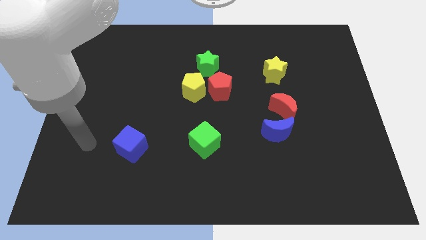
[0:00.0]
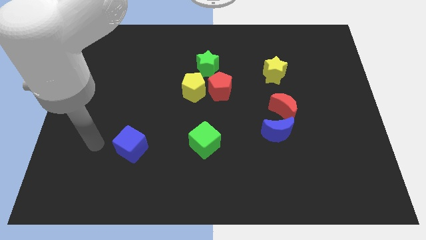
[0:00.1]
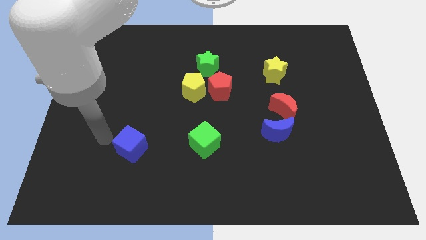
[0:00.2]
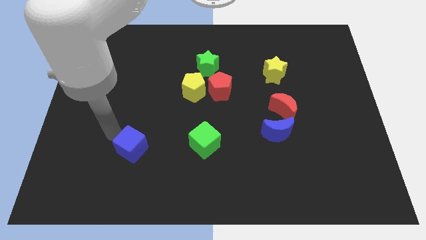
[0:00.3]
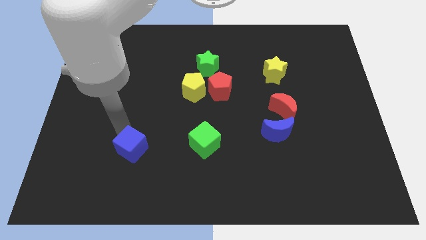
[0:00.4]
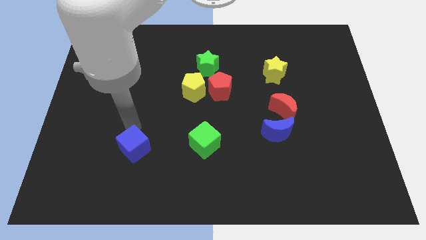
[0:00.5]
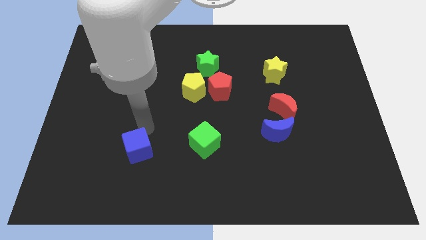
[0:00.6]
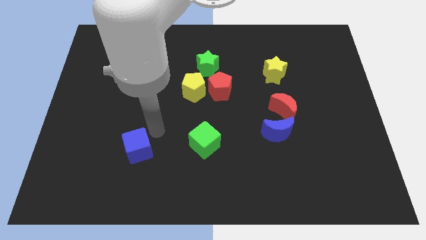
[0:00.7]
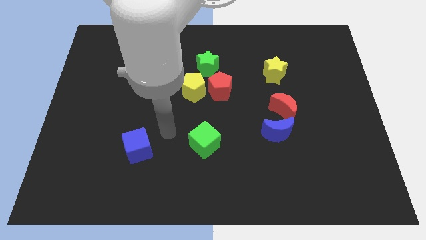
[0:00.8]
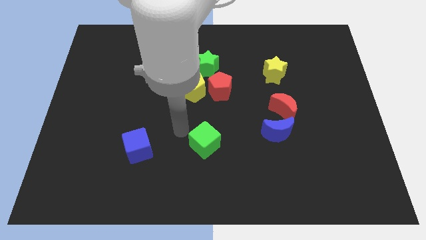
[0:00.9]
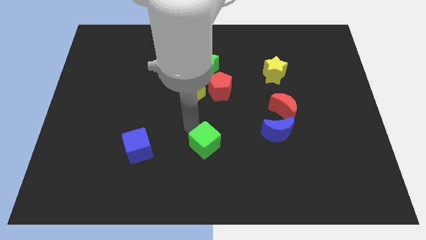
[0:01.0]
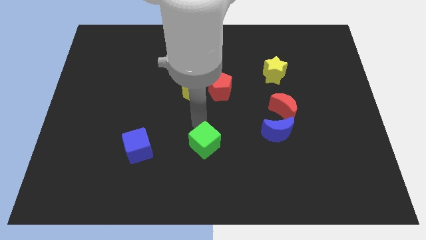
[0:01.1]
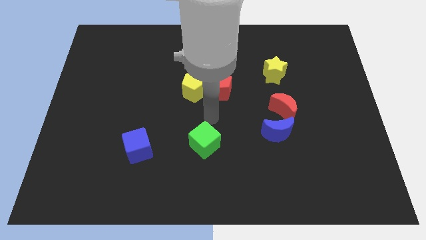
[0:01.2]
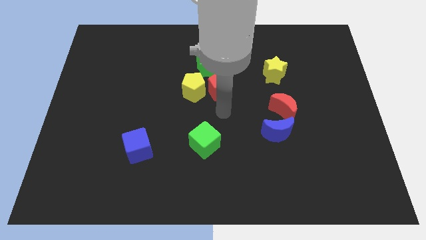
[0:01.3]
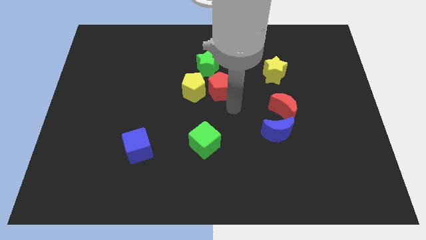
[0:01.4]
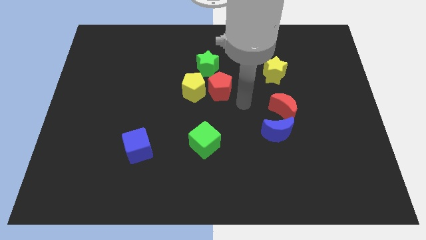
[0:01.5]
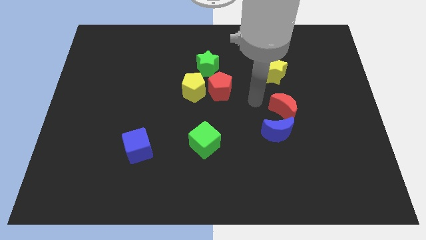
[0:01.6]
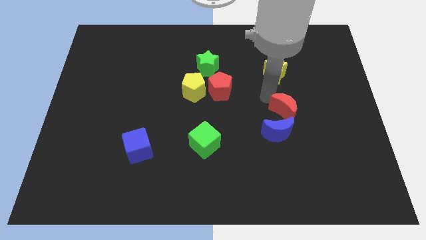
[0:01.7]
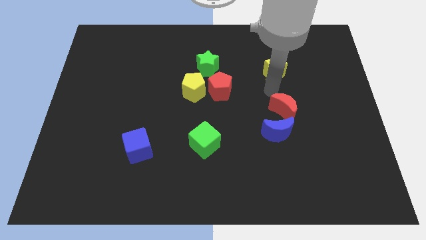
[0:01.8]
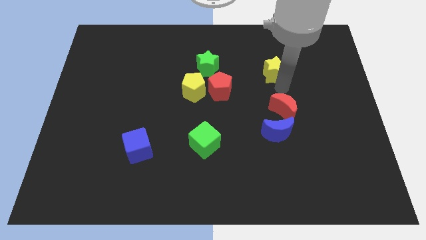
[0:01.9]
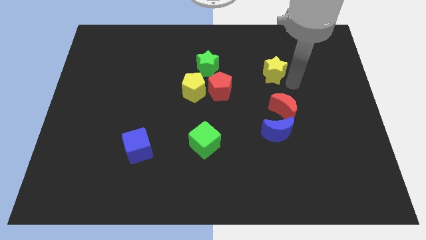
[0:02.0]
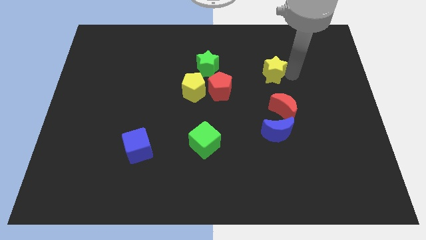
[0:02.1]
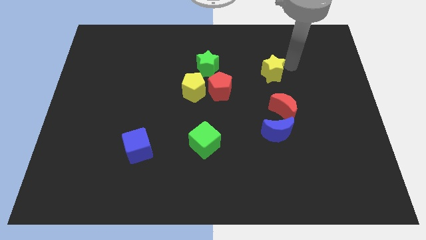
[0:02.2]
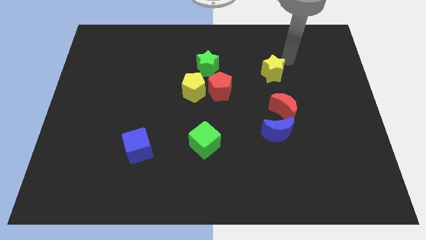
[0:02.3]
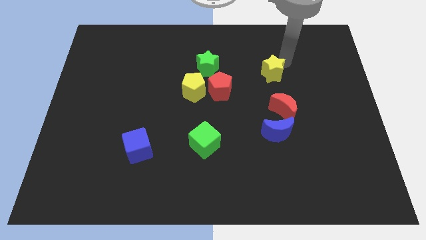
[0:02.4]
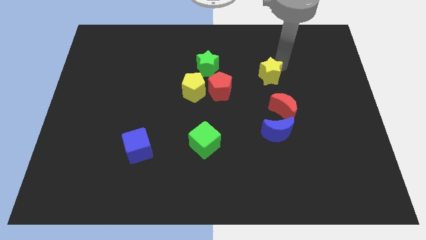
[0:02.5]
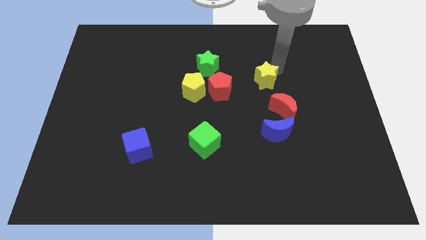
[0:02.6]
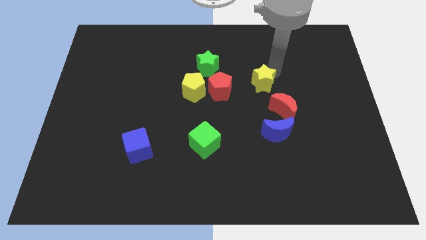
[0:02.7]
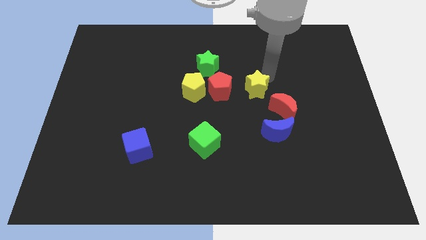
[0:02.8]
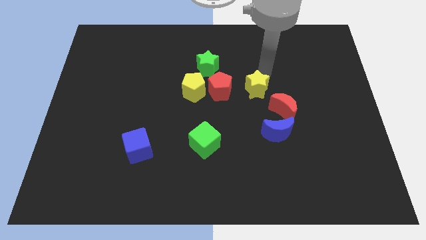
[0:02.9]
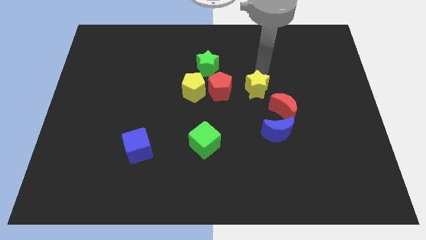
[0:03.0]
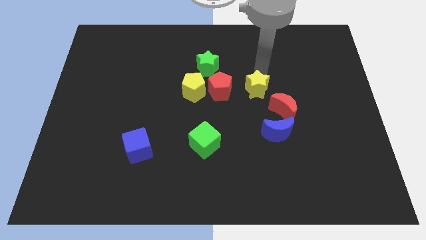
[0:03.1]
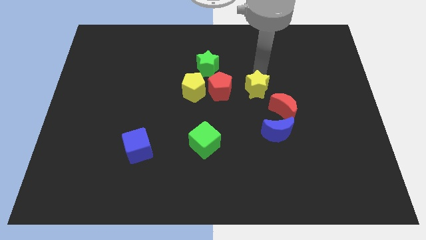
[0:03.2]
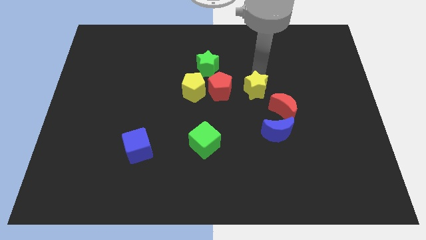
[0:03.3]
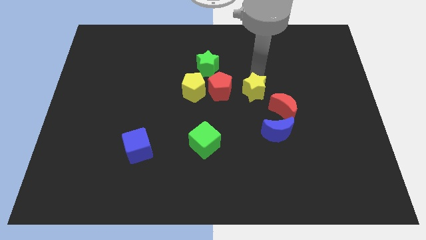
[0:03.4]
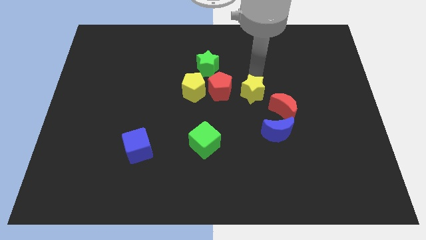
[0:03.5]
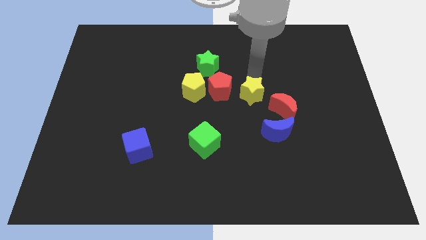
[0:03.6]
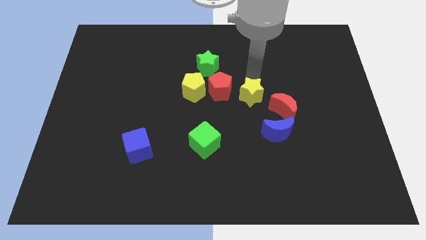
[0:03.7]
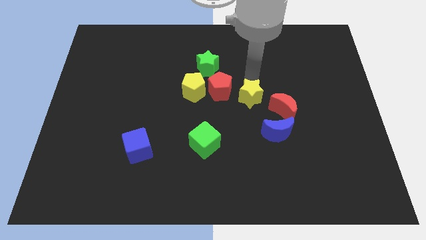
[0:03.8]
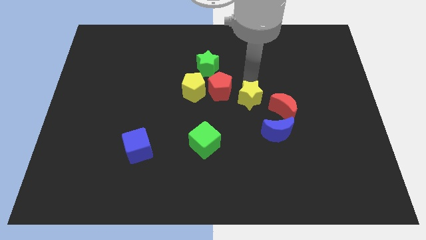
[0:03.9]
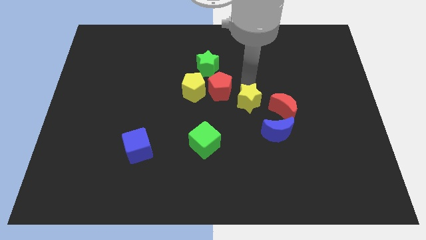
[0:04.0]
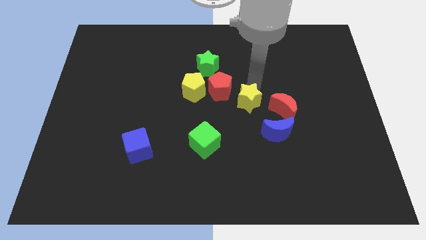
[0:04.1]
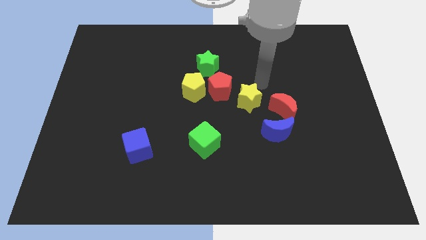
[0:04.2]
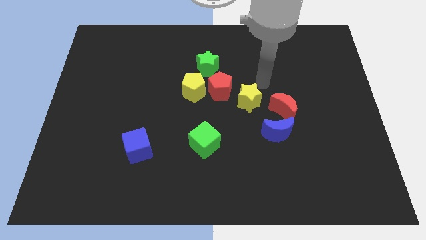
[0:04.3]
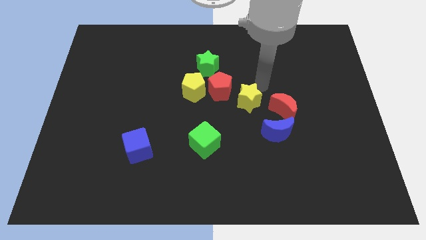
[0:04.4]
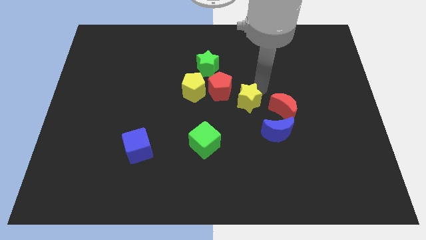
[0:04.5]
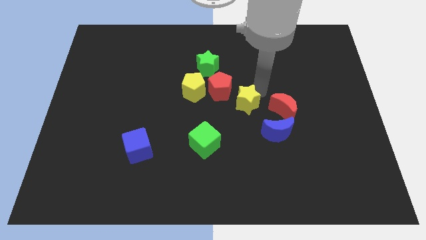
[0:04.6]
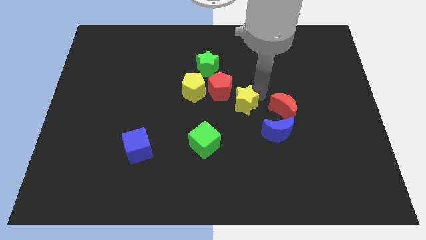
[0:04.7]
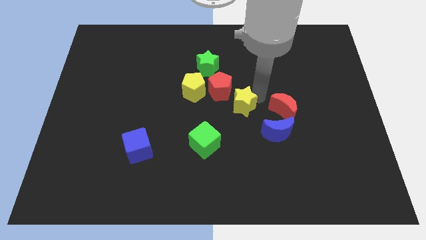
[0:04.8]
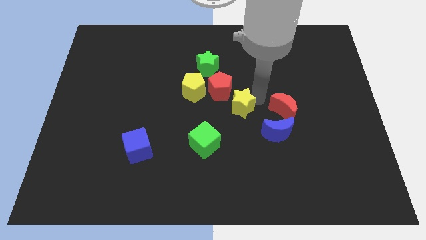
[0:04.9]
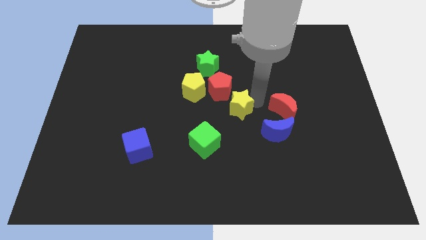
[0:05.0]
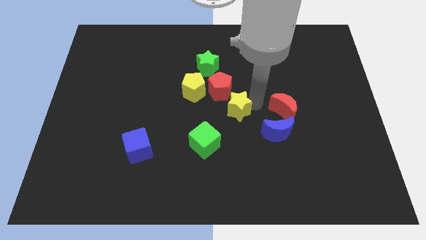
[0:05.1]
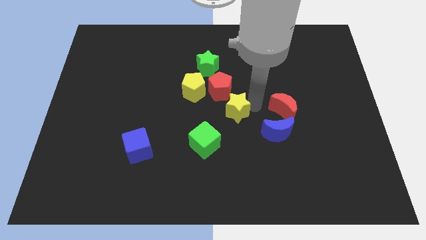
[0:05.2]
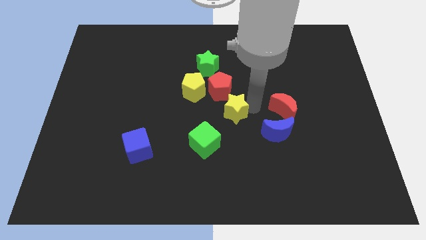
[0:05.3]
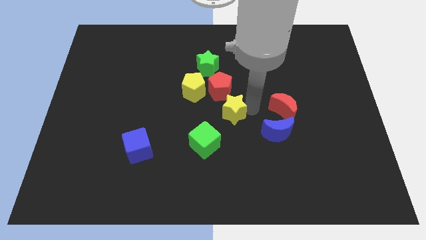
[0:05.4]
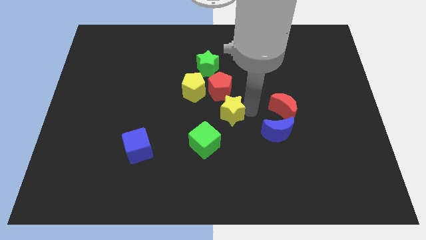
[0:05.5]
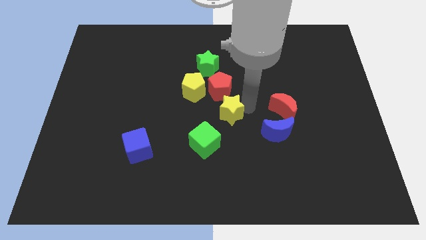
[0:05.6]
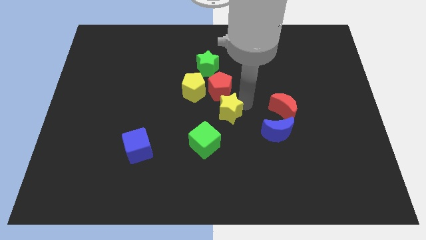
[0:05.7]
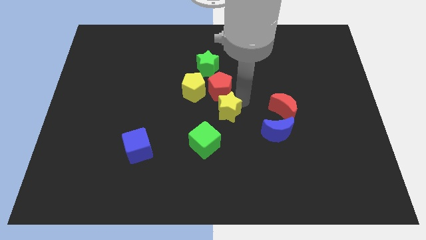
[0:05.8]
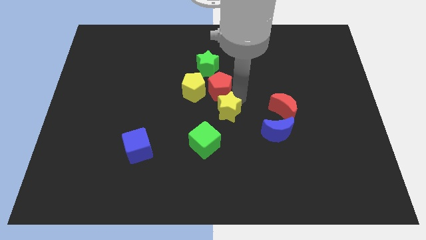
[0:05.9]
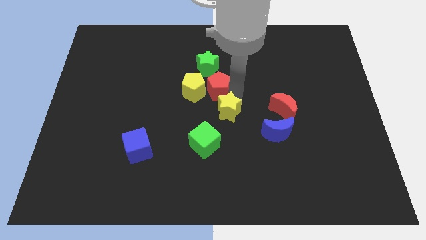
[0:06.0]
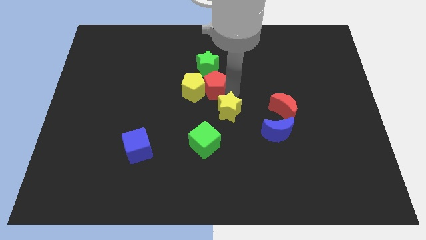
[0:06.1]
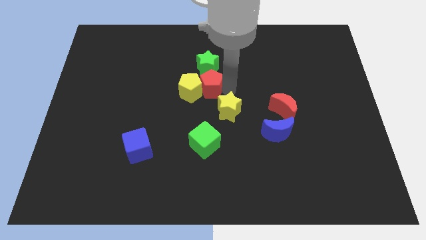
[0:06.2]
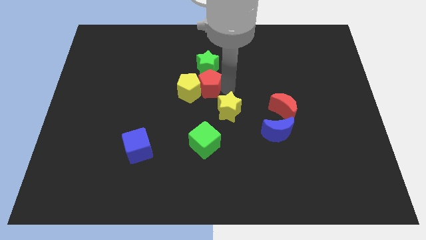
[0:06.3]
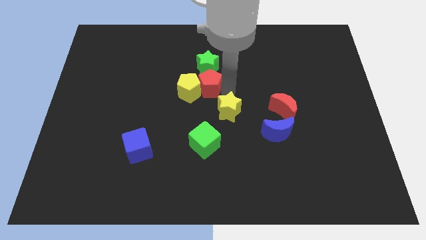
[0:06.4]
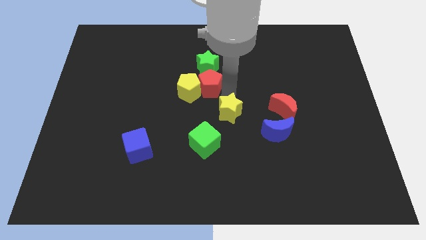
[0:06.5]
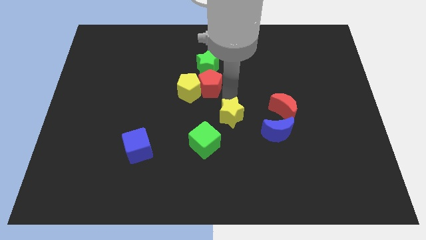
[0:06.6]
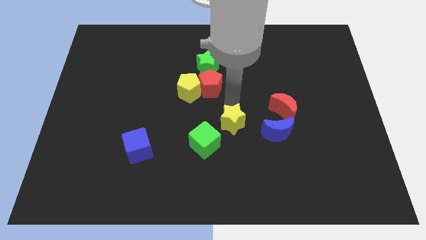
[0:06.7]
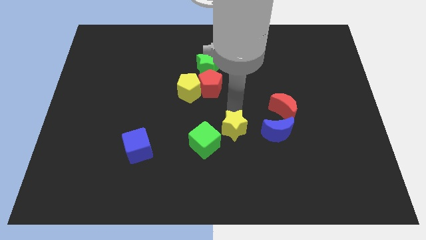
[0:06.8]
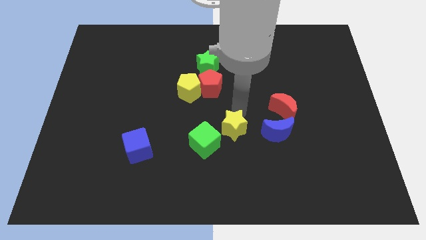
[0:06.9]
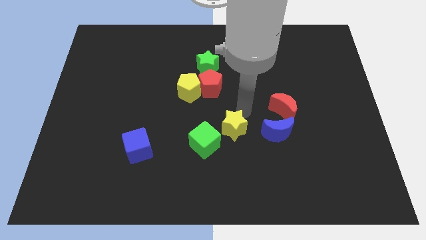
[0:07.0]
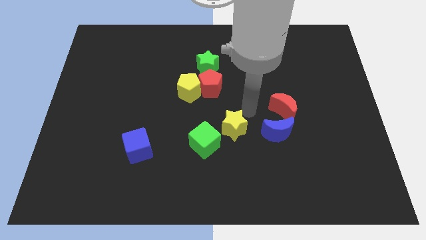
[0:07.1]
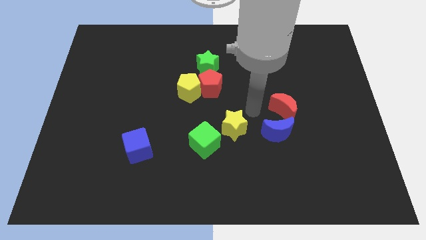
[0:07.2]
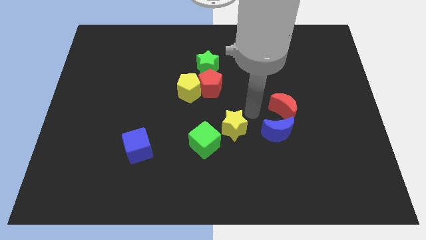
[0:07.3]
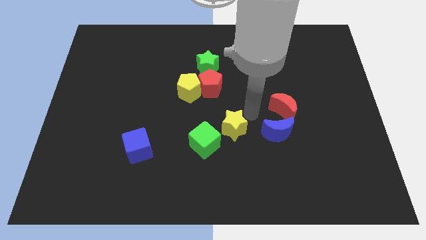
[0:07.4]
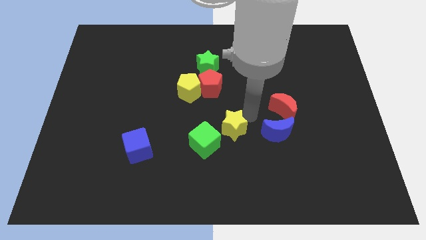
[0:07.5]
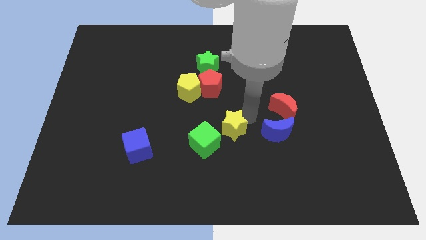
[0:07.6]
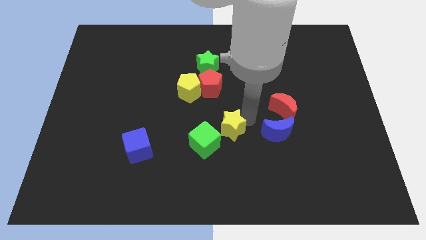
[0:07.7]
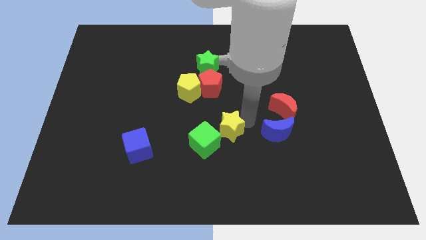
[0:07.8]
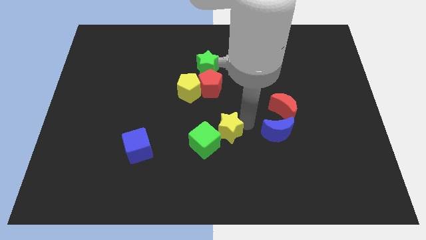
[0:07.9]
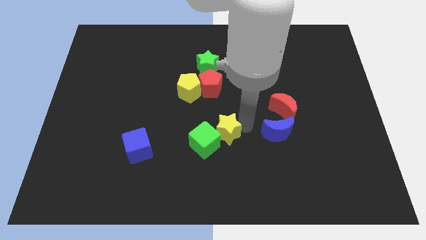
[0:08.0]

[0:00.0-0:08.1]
push the yellow star towards the green cube
